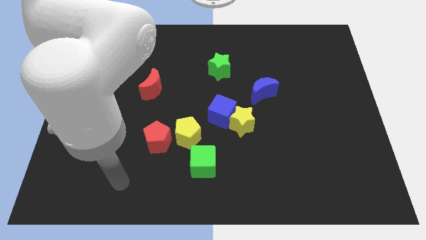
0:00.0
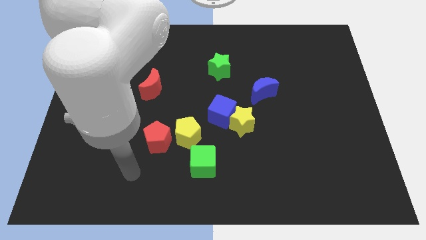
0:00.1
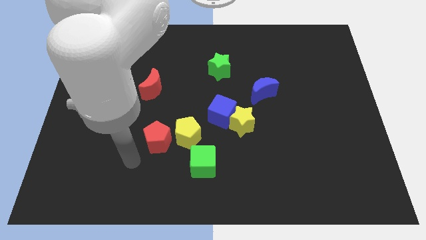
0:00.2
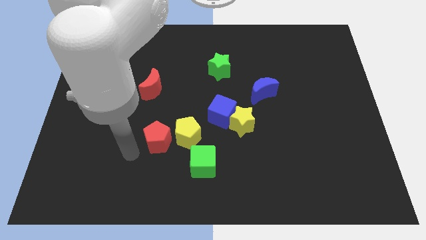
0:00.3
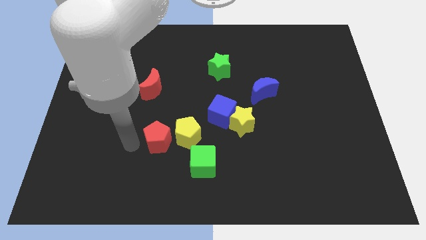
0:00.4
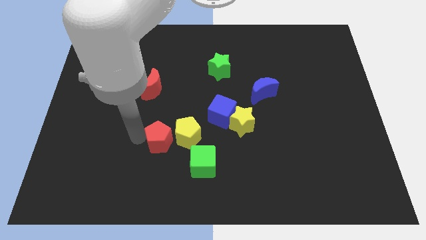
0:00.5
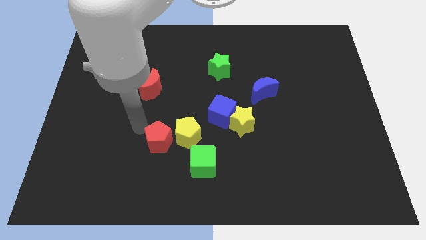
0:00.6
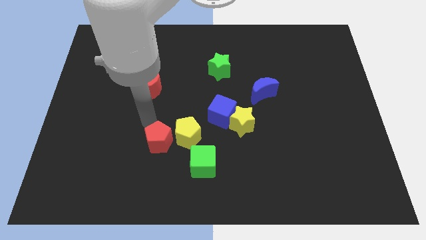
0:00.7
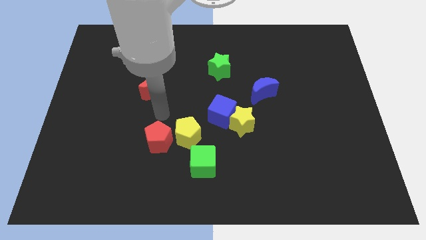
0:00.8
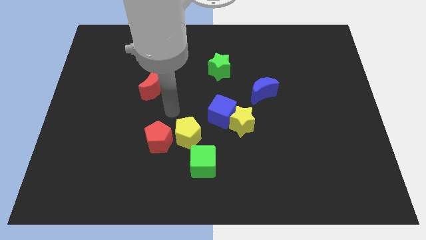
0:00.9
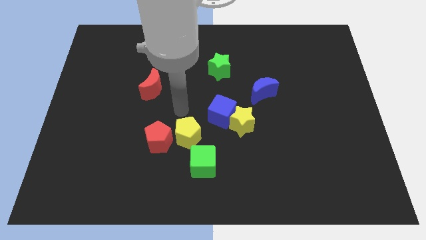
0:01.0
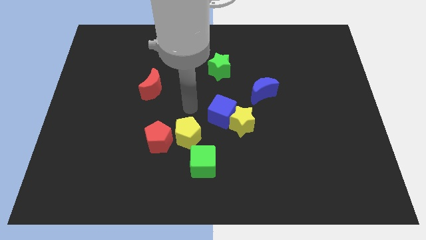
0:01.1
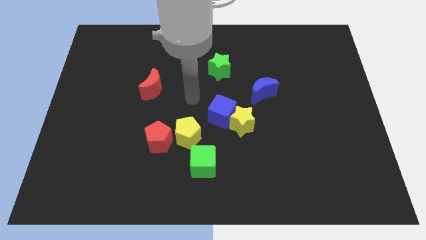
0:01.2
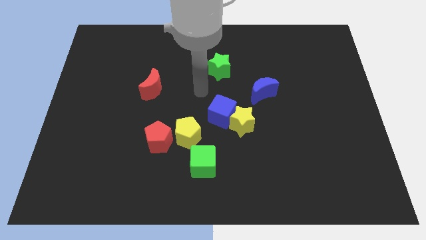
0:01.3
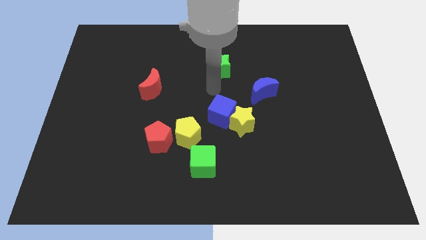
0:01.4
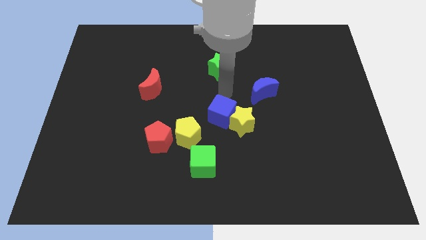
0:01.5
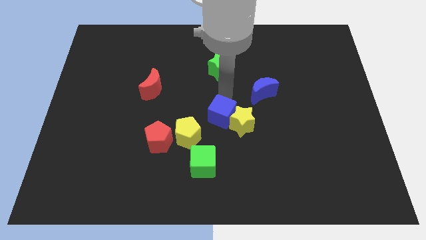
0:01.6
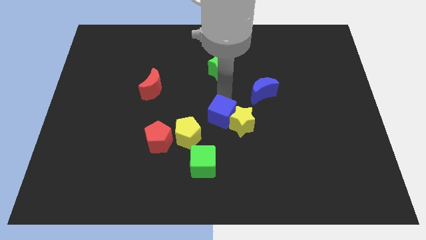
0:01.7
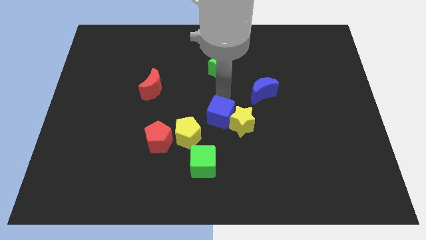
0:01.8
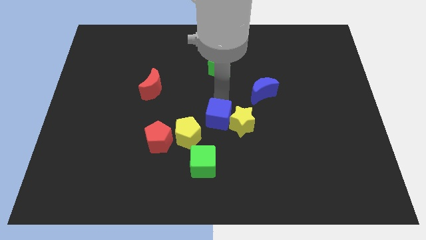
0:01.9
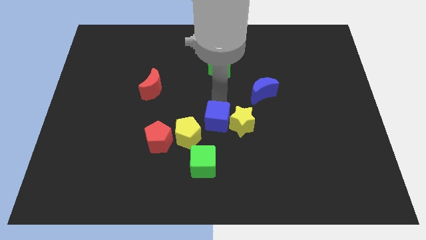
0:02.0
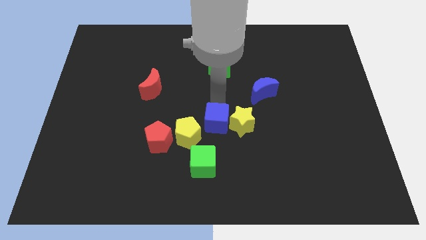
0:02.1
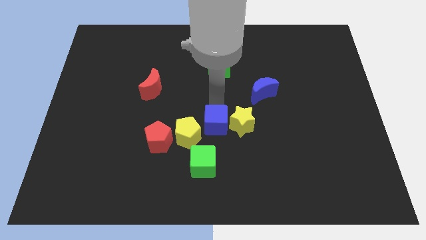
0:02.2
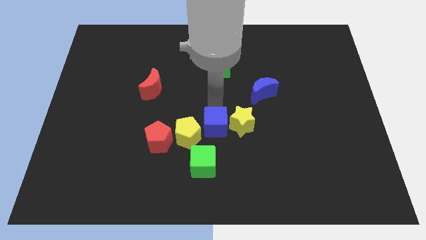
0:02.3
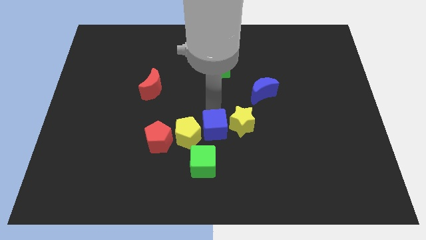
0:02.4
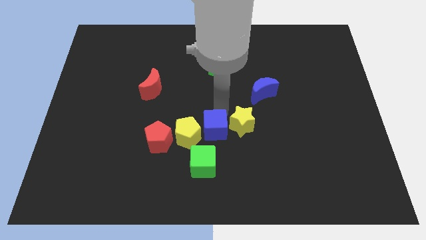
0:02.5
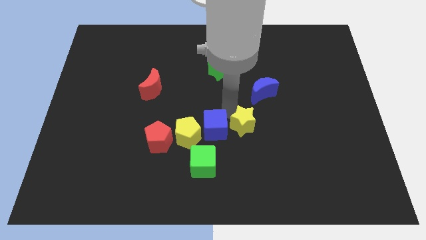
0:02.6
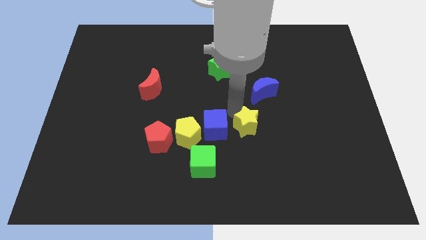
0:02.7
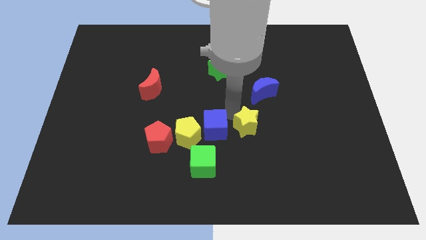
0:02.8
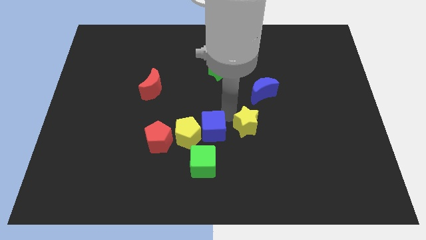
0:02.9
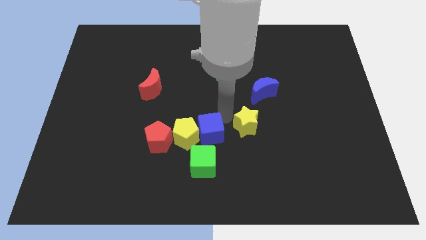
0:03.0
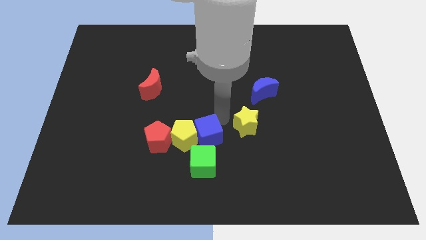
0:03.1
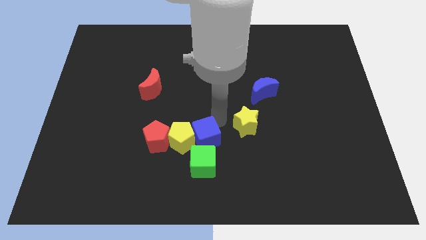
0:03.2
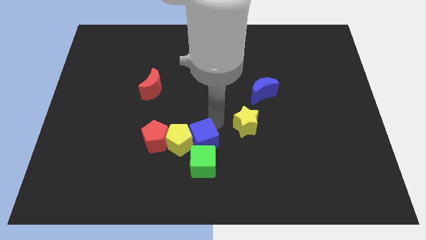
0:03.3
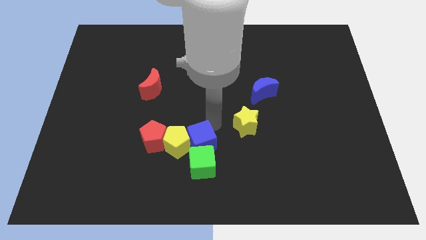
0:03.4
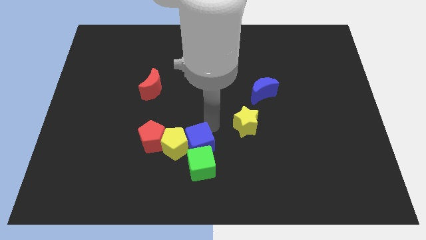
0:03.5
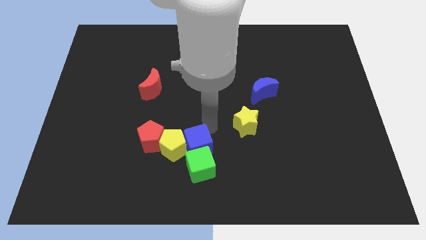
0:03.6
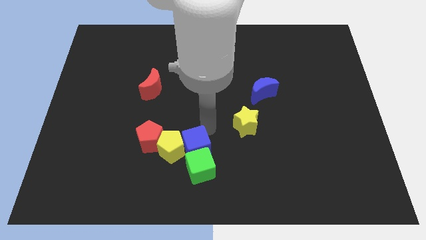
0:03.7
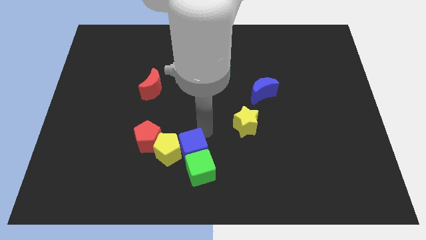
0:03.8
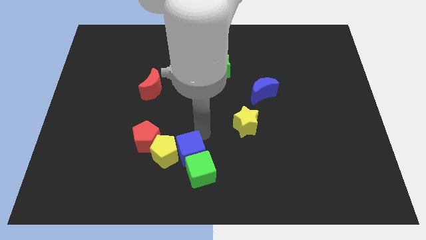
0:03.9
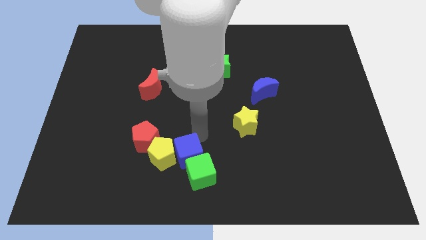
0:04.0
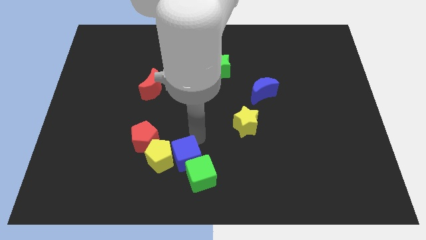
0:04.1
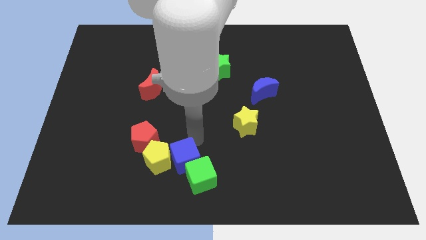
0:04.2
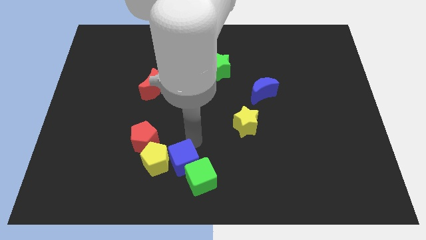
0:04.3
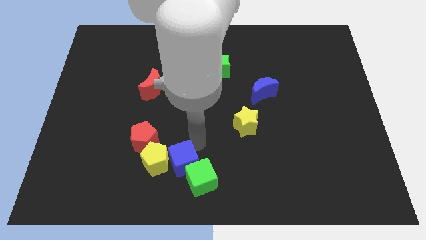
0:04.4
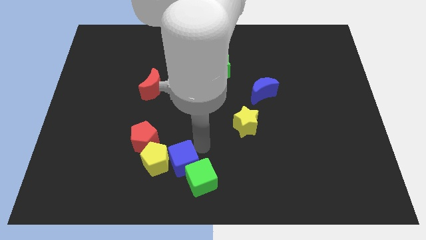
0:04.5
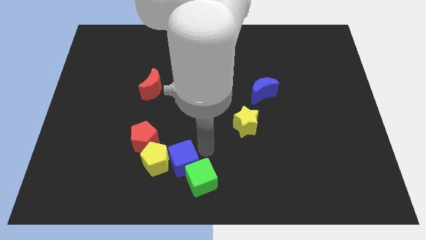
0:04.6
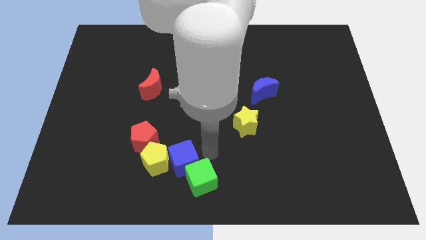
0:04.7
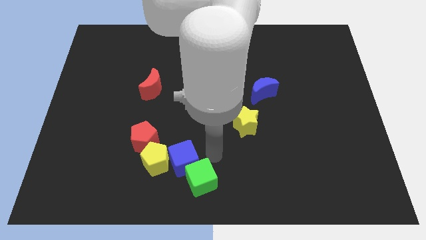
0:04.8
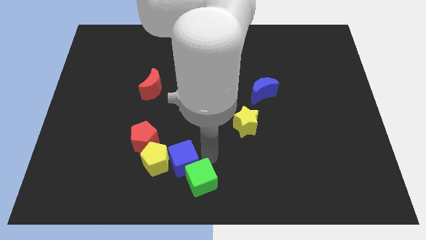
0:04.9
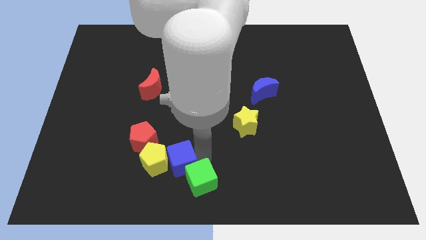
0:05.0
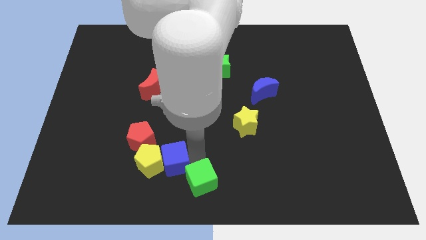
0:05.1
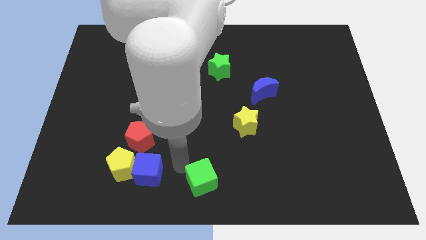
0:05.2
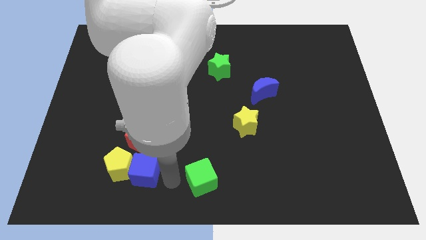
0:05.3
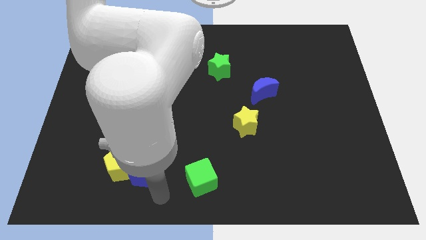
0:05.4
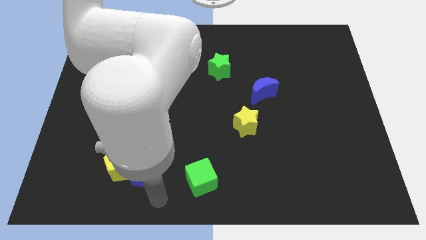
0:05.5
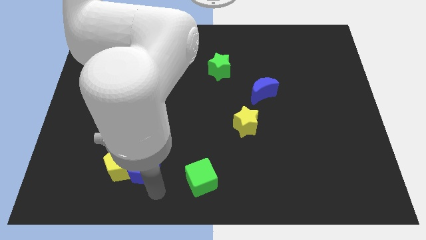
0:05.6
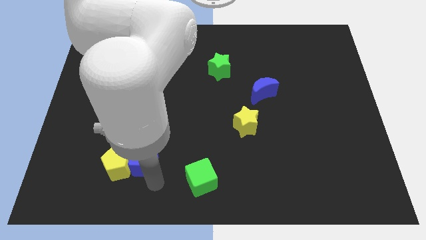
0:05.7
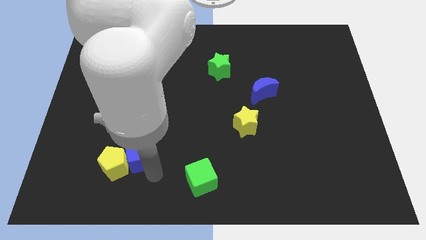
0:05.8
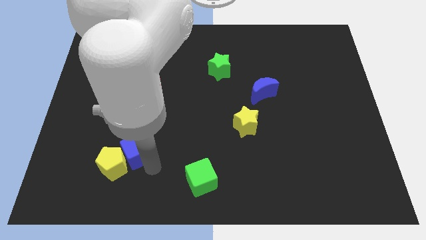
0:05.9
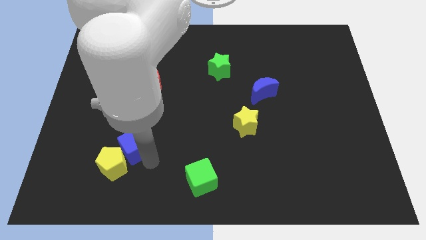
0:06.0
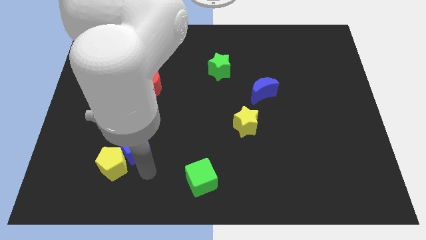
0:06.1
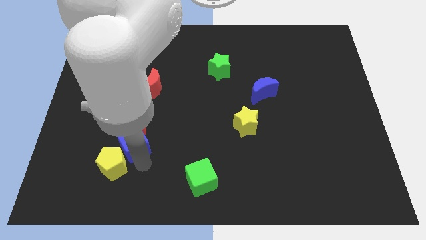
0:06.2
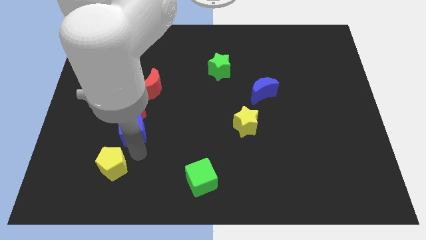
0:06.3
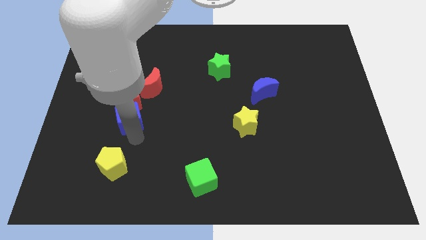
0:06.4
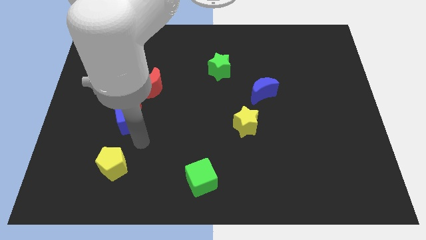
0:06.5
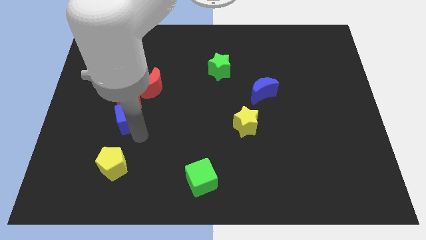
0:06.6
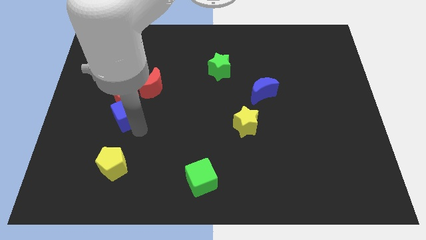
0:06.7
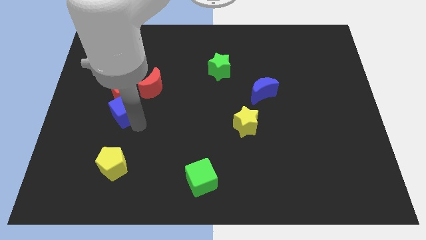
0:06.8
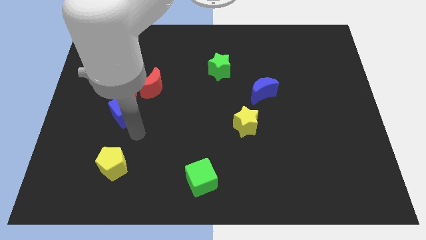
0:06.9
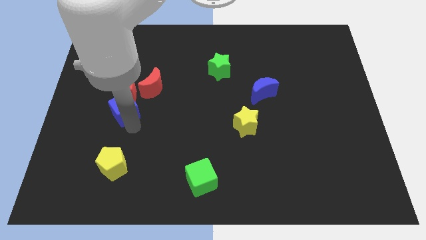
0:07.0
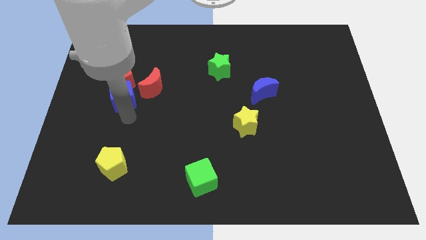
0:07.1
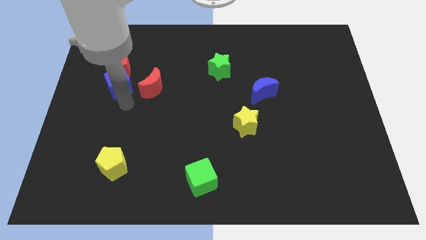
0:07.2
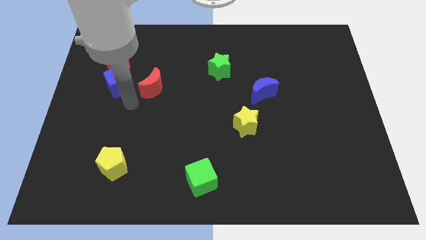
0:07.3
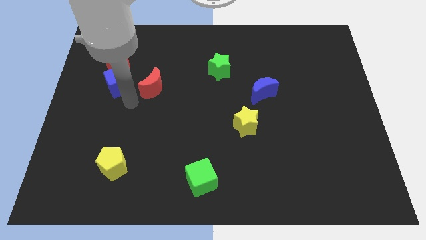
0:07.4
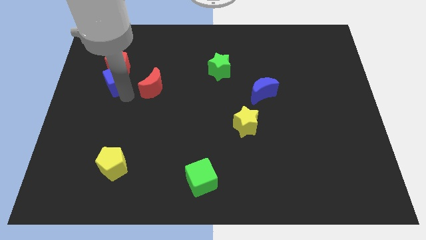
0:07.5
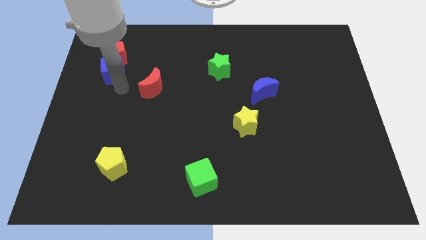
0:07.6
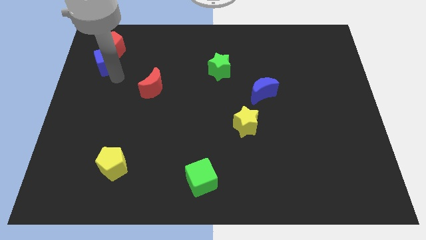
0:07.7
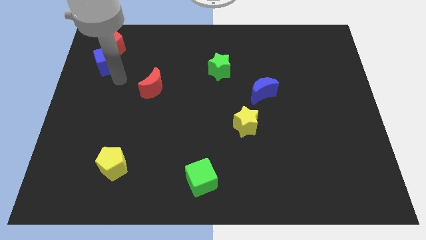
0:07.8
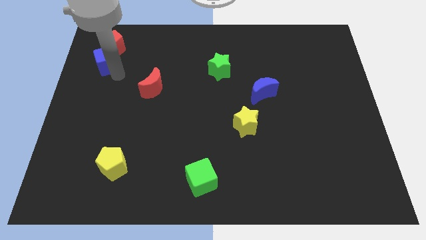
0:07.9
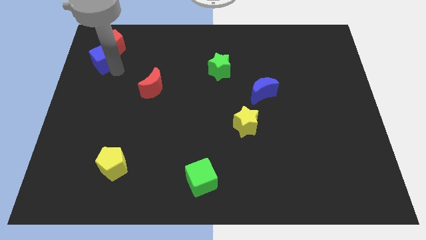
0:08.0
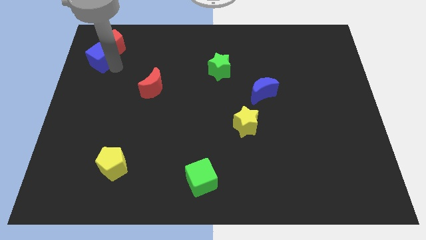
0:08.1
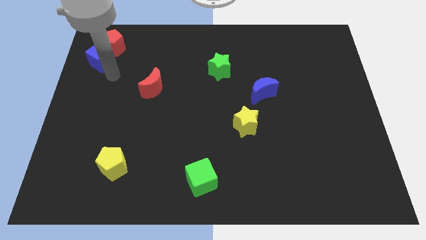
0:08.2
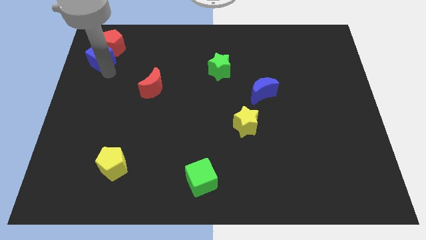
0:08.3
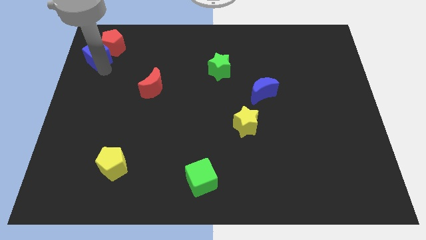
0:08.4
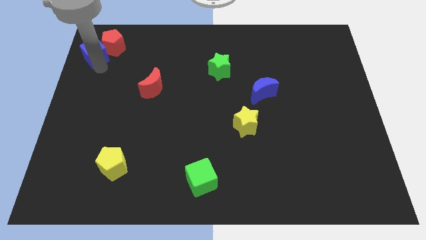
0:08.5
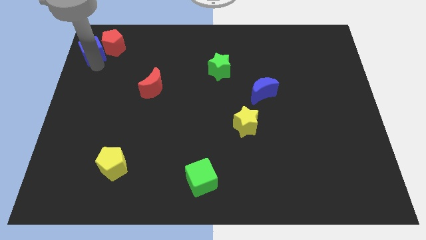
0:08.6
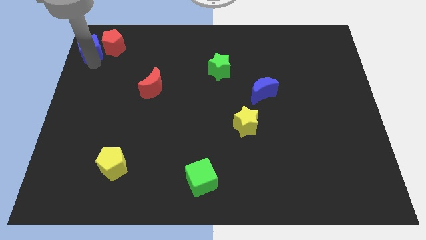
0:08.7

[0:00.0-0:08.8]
move the blue cube to the top left of the board
